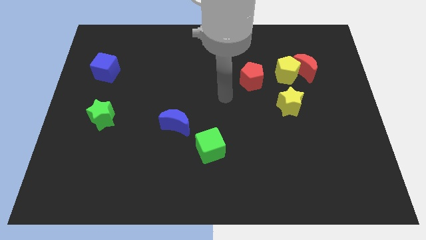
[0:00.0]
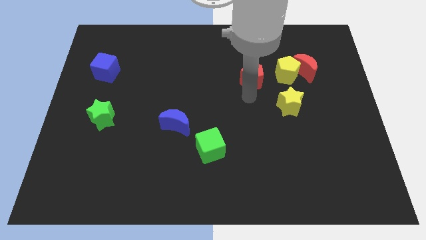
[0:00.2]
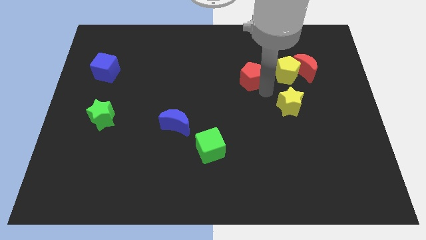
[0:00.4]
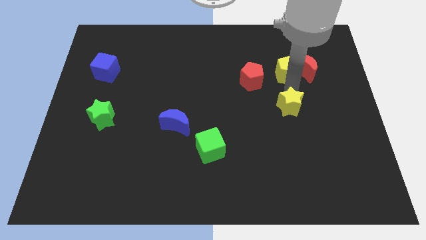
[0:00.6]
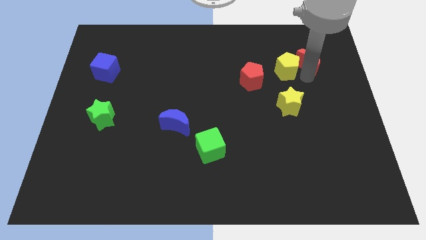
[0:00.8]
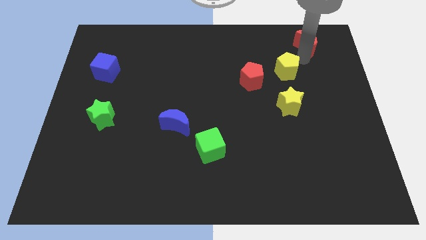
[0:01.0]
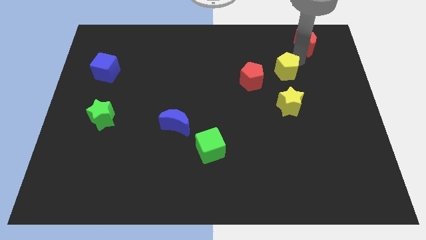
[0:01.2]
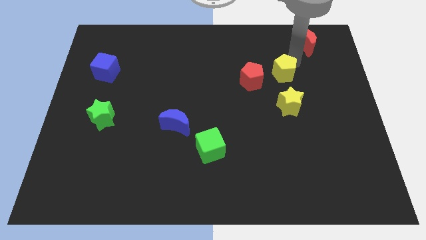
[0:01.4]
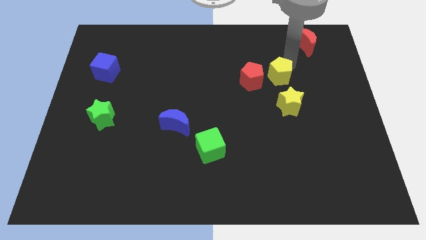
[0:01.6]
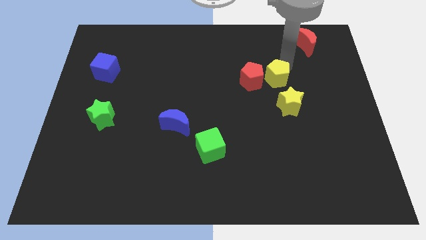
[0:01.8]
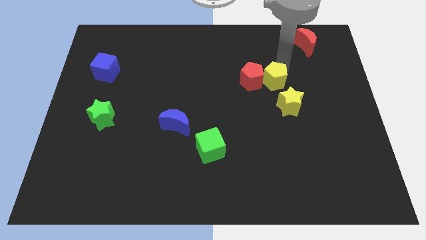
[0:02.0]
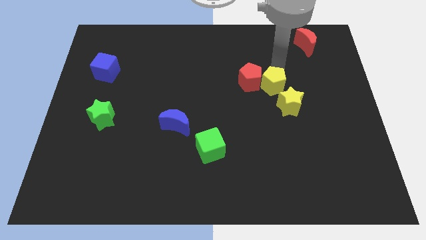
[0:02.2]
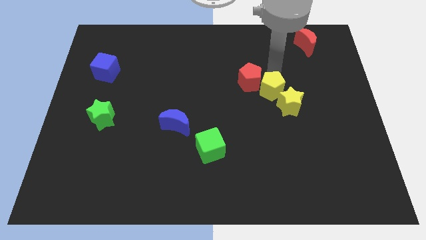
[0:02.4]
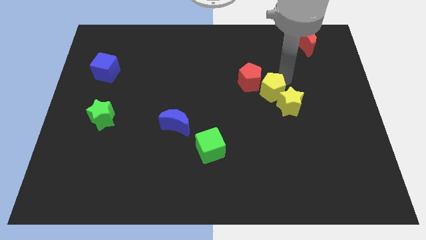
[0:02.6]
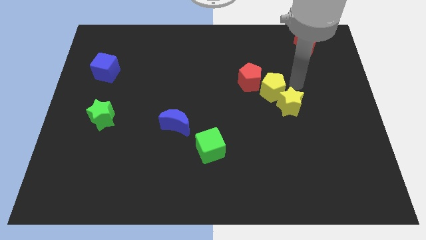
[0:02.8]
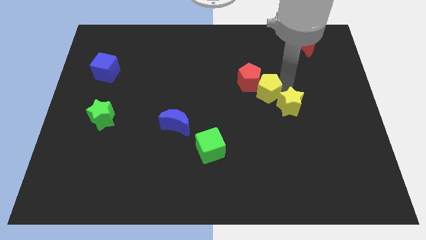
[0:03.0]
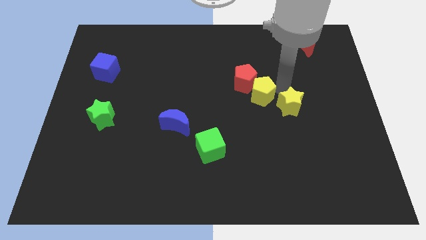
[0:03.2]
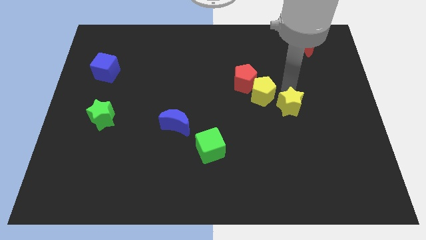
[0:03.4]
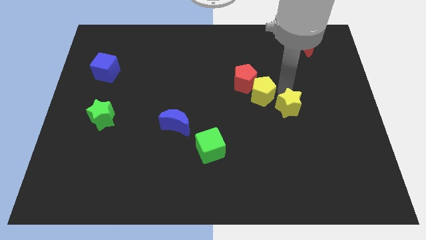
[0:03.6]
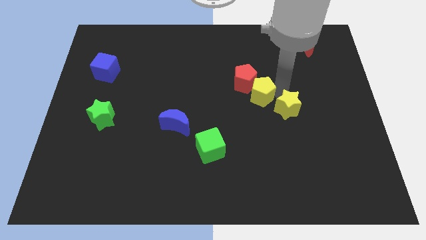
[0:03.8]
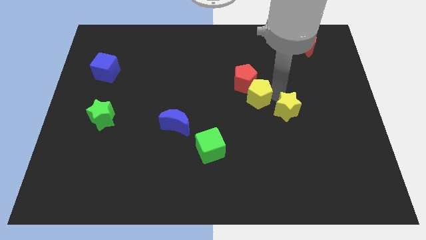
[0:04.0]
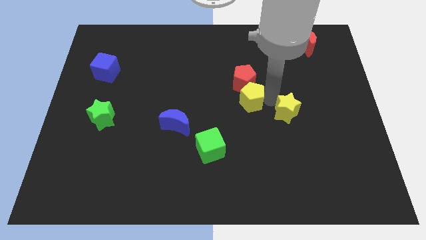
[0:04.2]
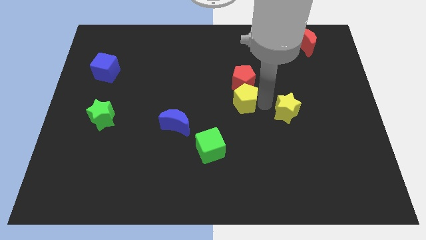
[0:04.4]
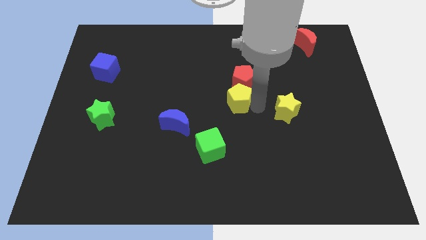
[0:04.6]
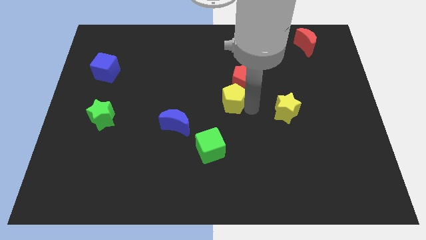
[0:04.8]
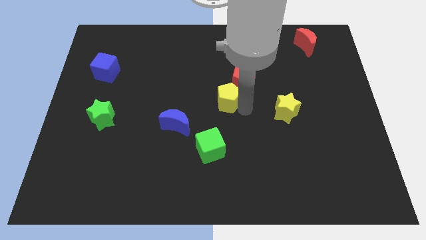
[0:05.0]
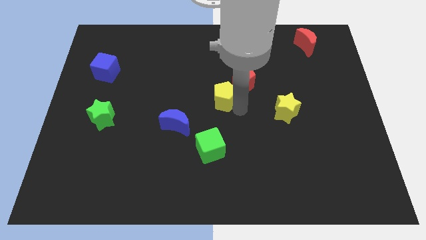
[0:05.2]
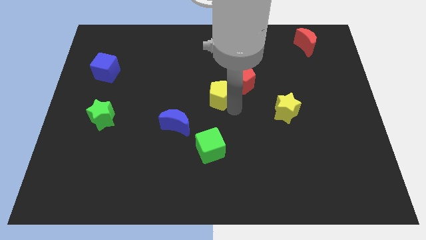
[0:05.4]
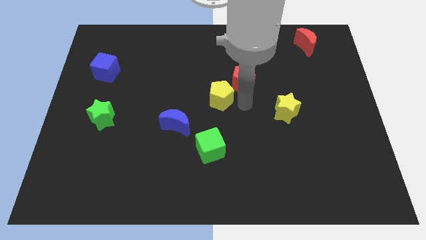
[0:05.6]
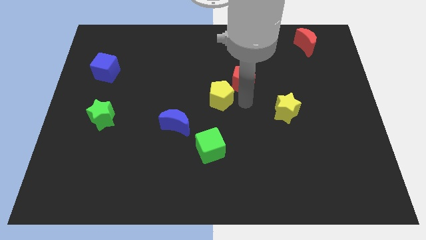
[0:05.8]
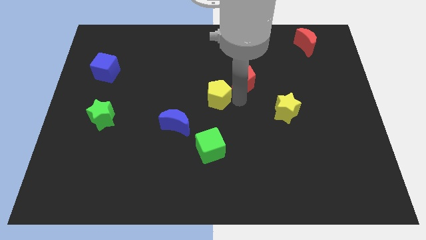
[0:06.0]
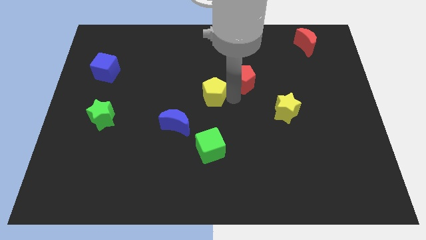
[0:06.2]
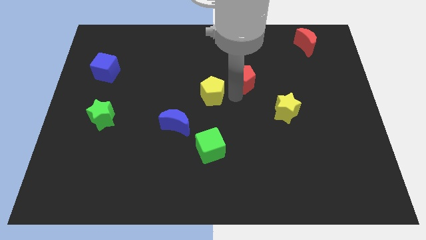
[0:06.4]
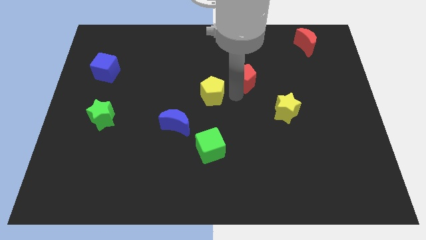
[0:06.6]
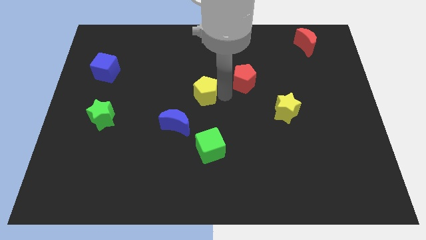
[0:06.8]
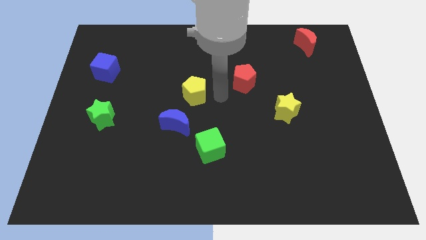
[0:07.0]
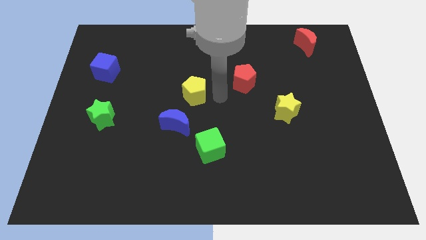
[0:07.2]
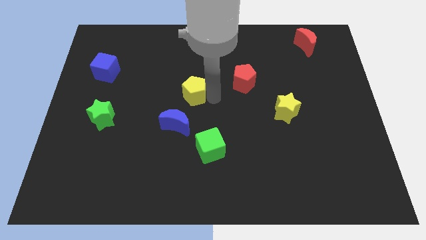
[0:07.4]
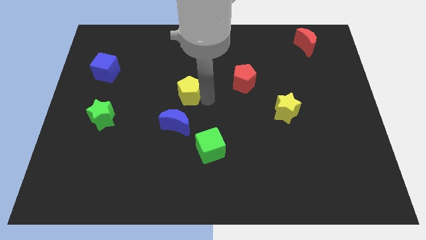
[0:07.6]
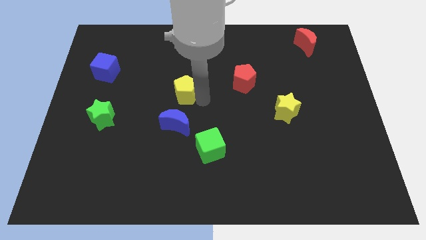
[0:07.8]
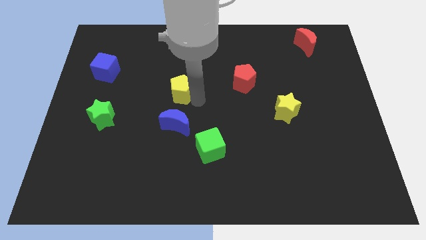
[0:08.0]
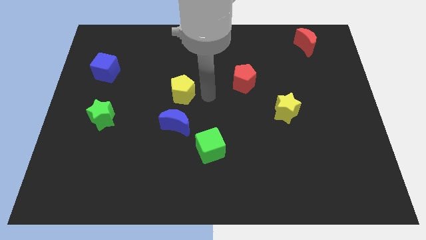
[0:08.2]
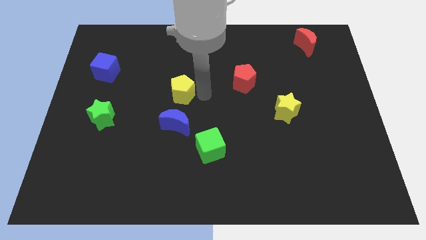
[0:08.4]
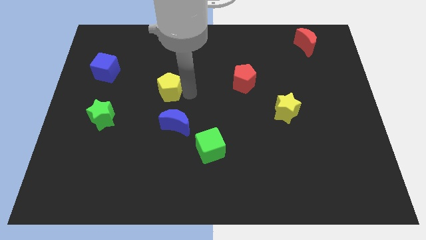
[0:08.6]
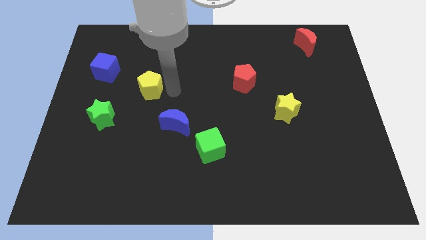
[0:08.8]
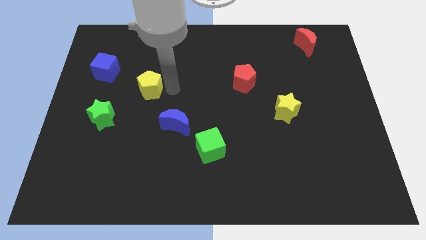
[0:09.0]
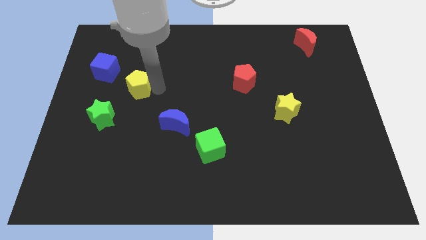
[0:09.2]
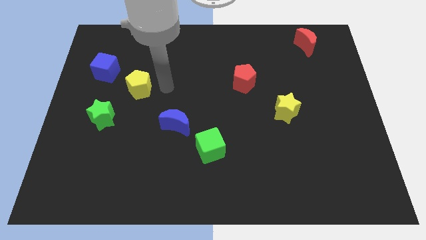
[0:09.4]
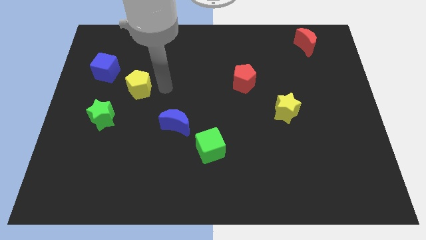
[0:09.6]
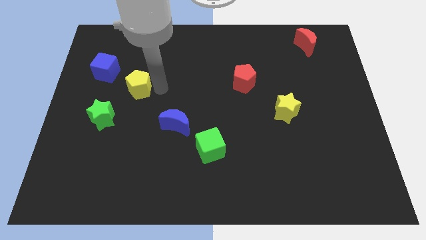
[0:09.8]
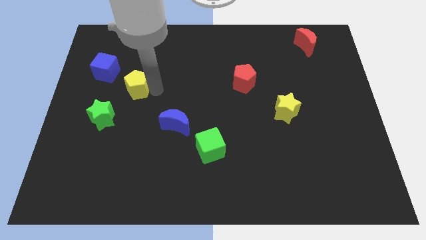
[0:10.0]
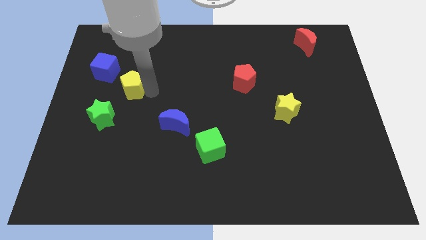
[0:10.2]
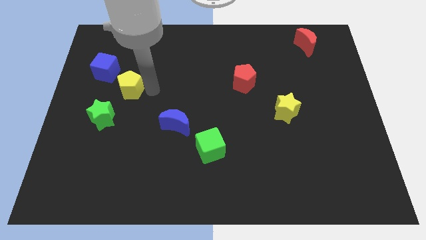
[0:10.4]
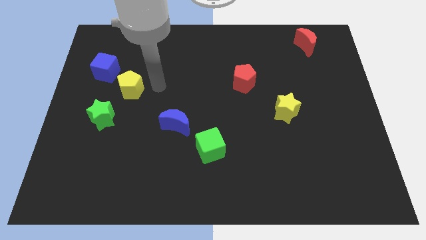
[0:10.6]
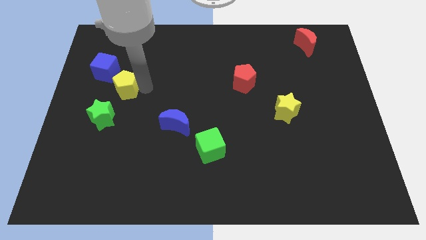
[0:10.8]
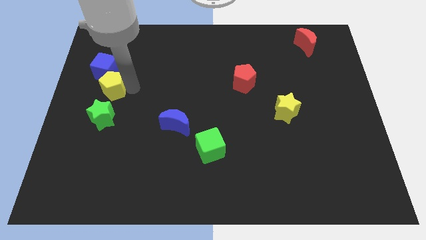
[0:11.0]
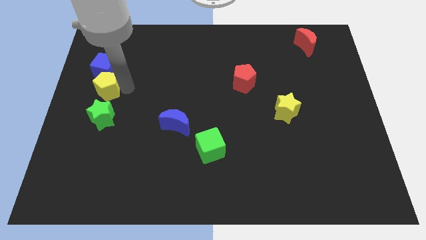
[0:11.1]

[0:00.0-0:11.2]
push the yellow pentagon to the left side of the board

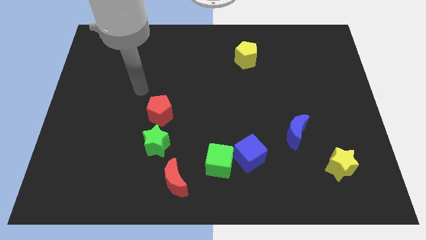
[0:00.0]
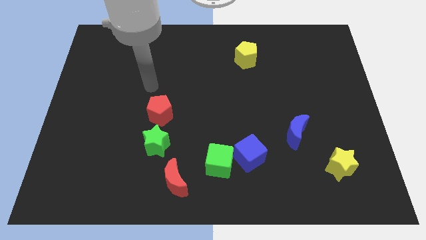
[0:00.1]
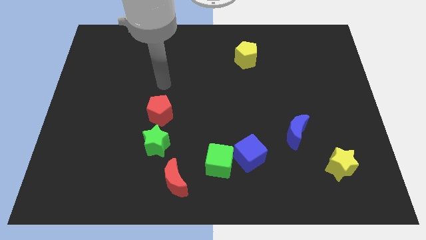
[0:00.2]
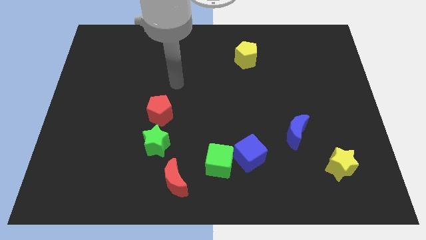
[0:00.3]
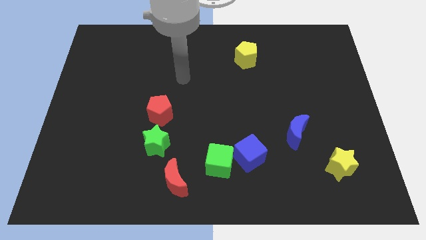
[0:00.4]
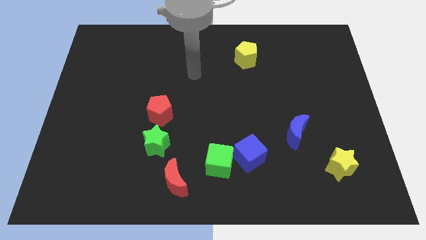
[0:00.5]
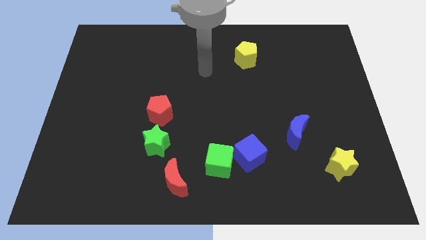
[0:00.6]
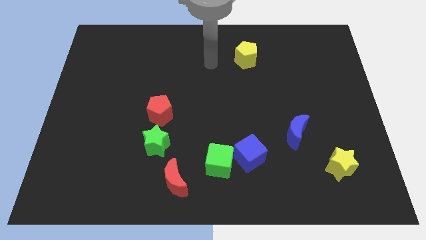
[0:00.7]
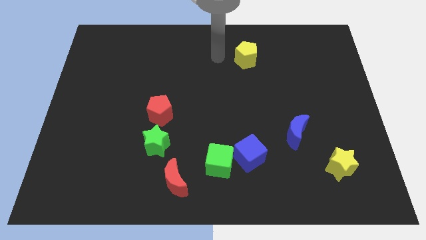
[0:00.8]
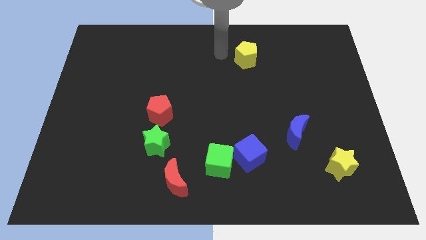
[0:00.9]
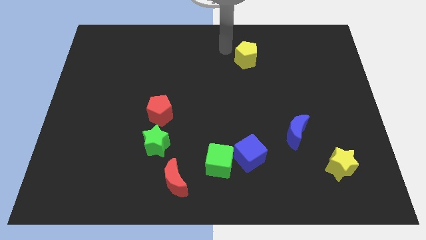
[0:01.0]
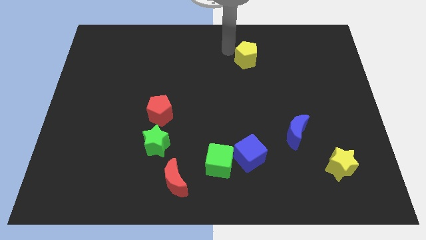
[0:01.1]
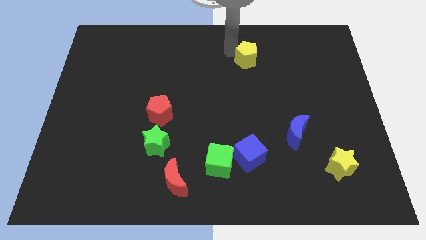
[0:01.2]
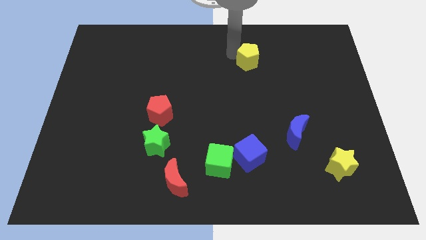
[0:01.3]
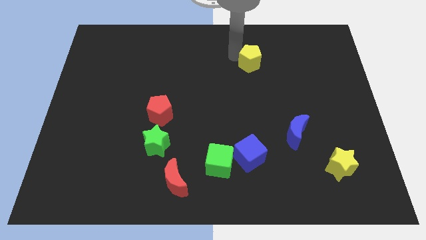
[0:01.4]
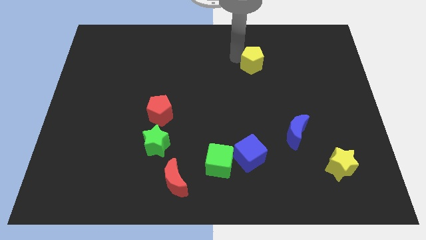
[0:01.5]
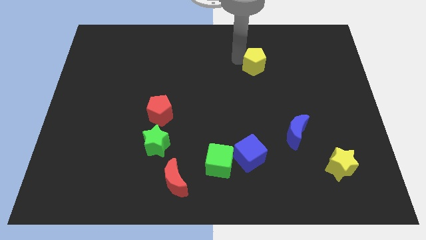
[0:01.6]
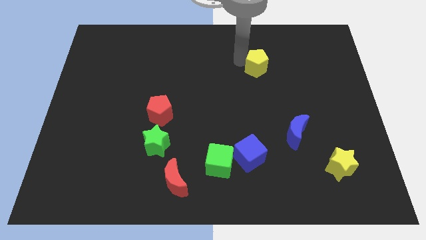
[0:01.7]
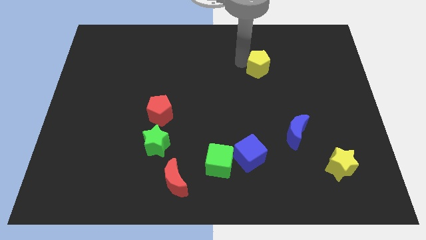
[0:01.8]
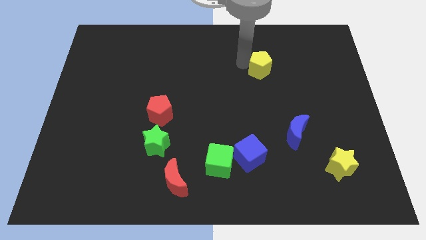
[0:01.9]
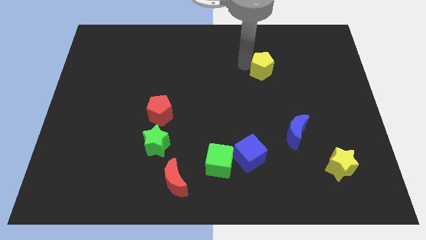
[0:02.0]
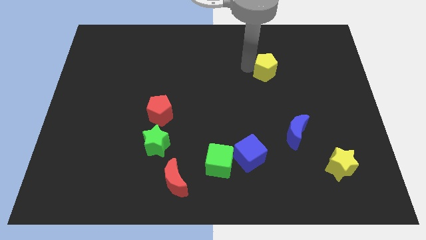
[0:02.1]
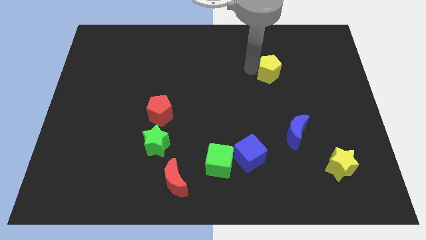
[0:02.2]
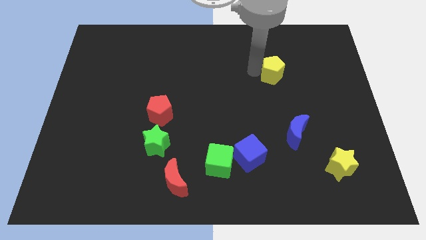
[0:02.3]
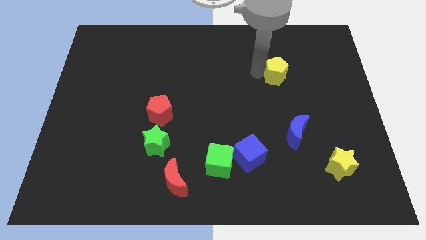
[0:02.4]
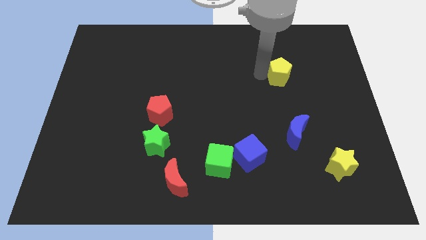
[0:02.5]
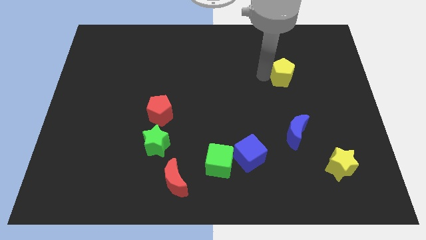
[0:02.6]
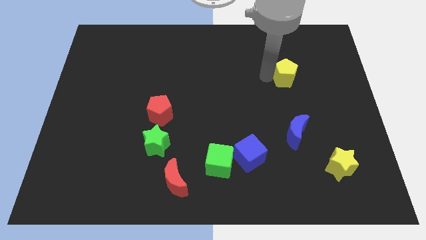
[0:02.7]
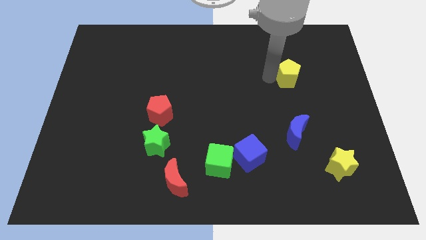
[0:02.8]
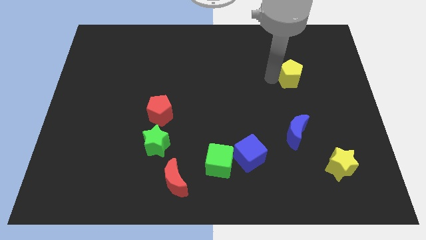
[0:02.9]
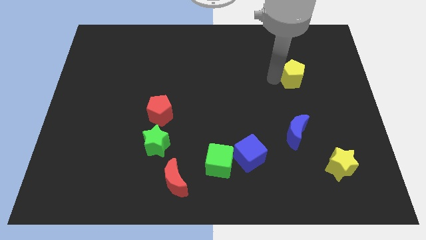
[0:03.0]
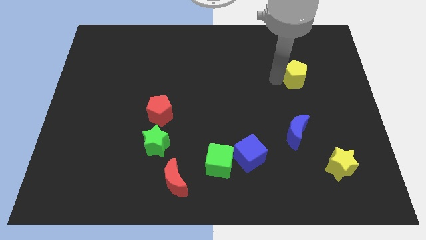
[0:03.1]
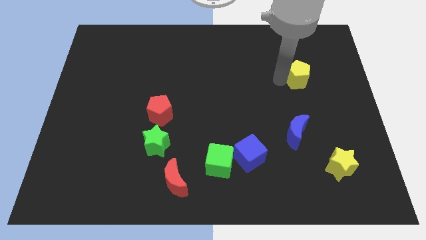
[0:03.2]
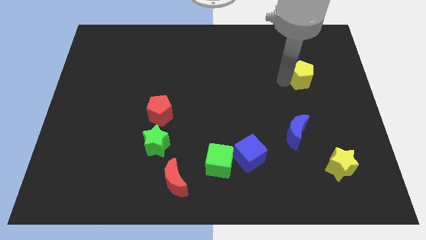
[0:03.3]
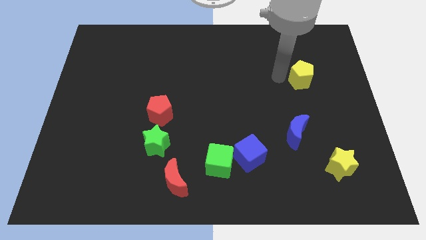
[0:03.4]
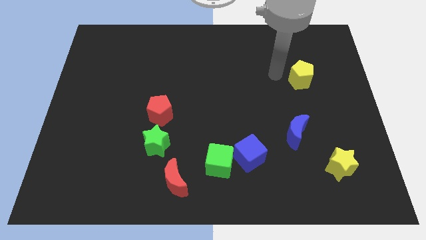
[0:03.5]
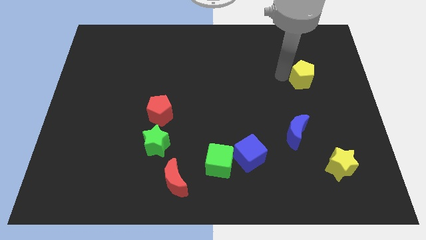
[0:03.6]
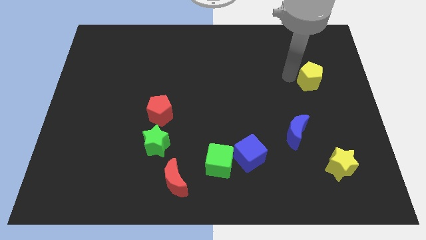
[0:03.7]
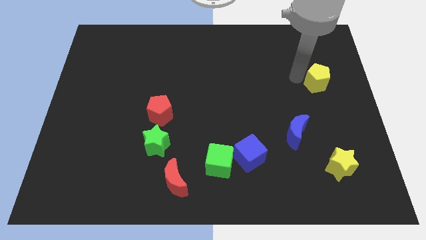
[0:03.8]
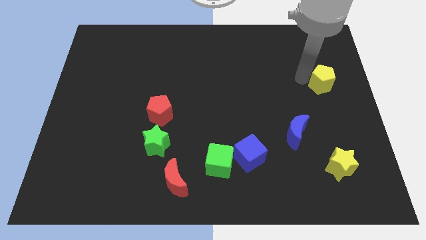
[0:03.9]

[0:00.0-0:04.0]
slide the yellow pentagon to the center right
